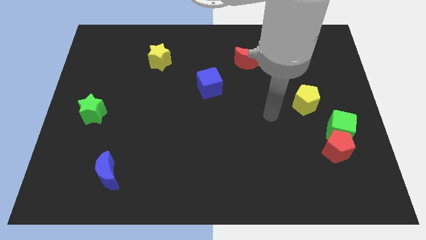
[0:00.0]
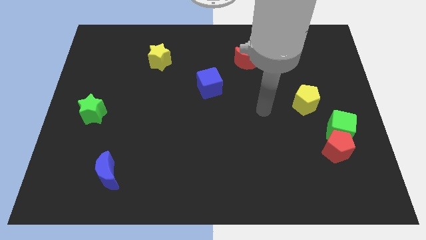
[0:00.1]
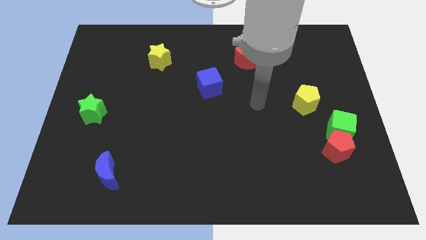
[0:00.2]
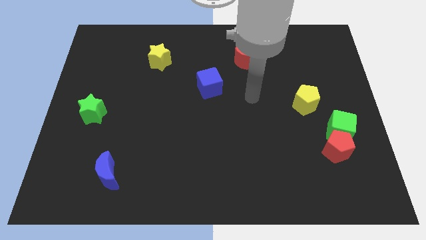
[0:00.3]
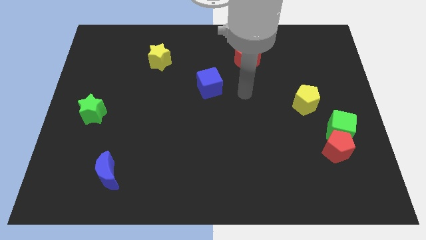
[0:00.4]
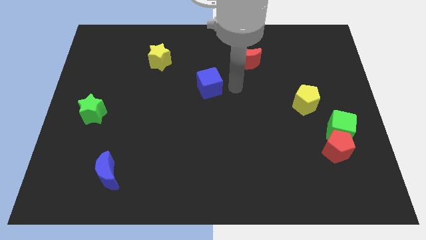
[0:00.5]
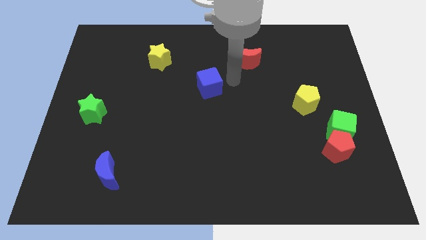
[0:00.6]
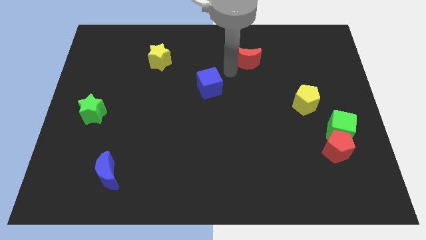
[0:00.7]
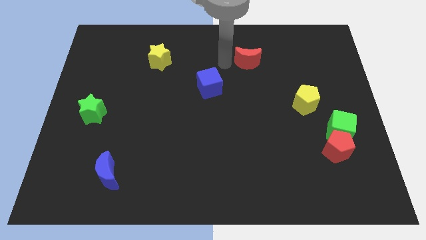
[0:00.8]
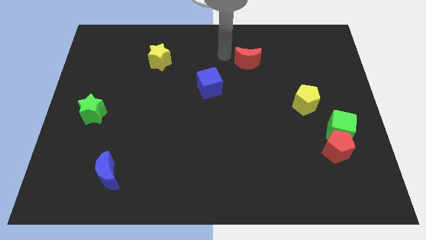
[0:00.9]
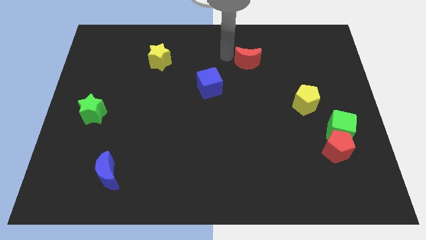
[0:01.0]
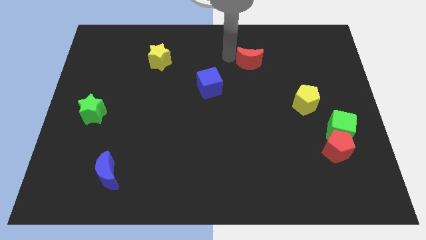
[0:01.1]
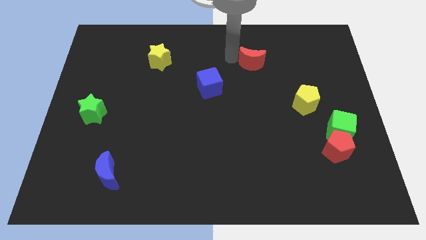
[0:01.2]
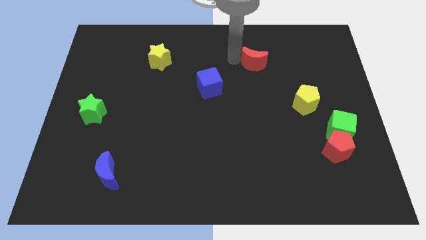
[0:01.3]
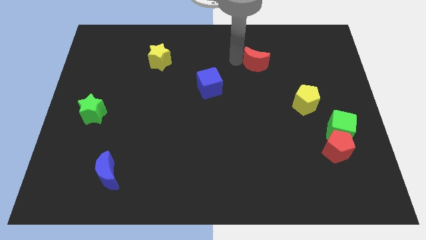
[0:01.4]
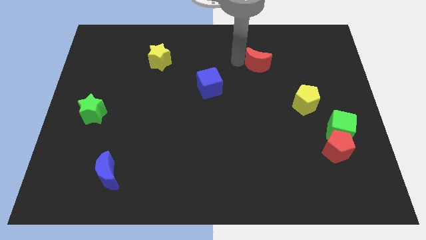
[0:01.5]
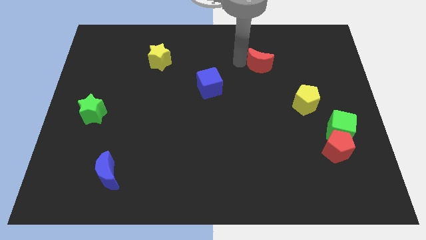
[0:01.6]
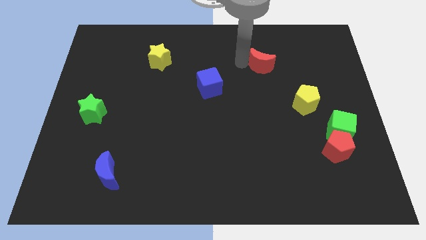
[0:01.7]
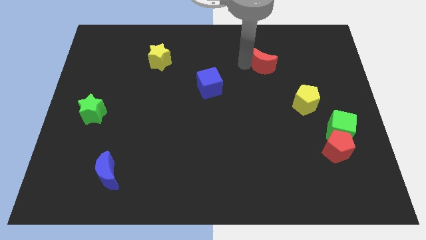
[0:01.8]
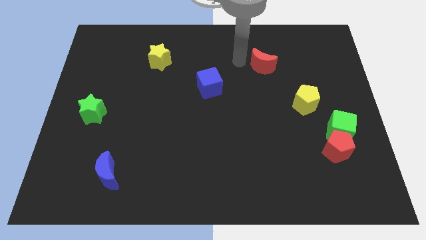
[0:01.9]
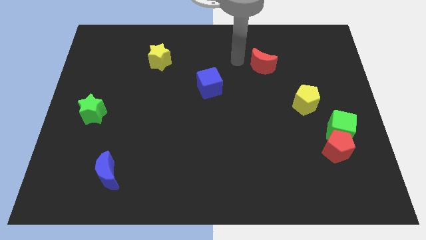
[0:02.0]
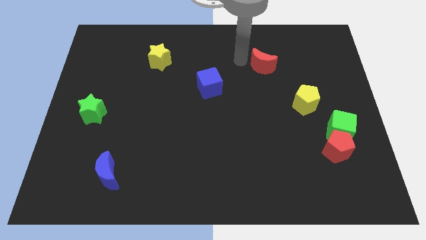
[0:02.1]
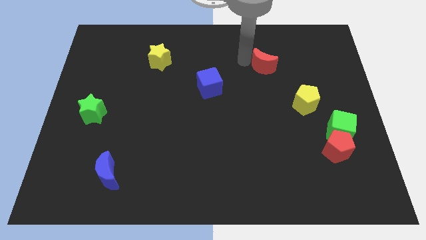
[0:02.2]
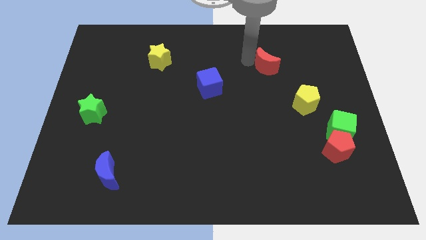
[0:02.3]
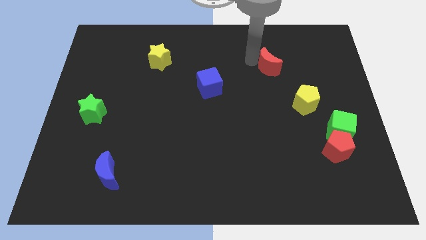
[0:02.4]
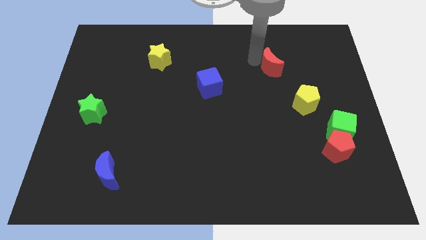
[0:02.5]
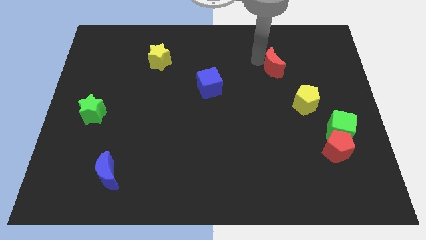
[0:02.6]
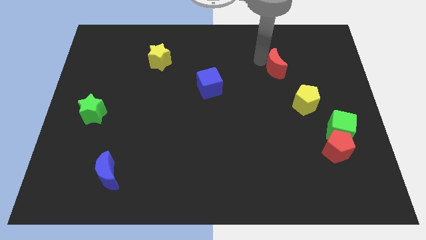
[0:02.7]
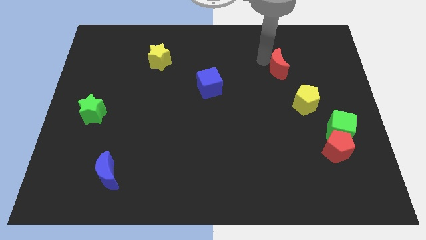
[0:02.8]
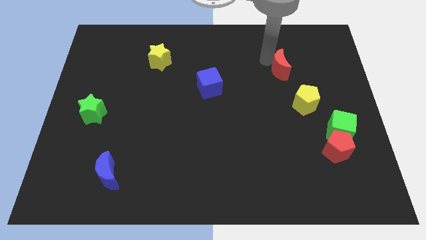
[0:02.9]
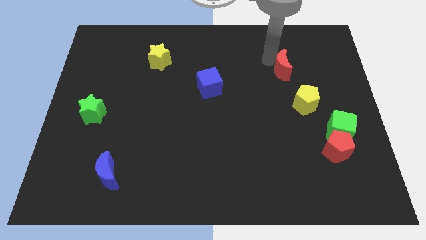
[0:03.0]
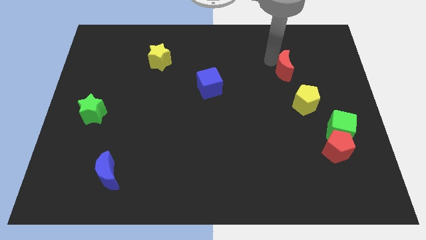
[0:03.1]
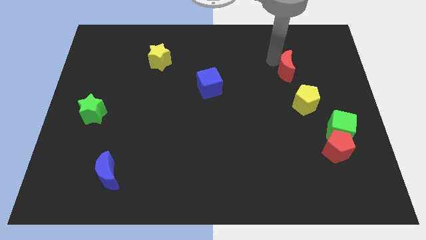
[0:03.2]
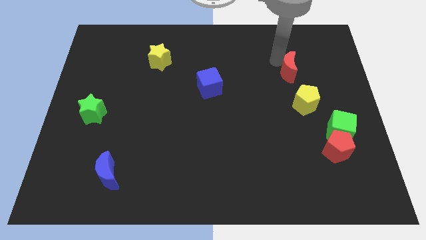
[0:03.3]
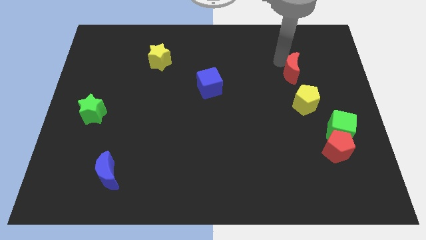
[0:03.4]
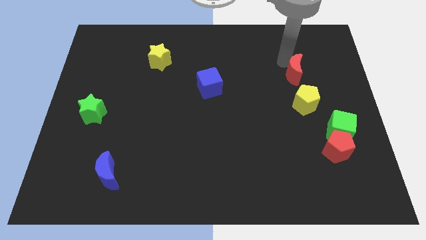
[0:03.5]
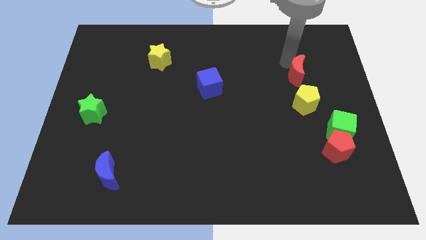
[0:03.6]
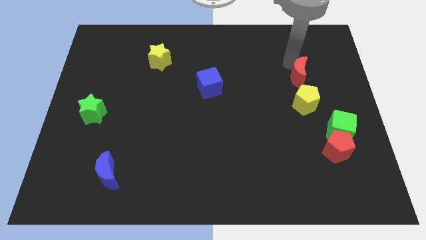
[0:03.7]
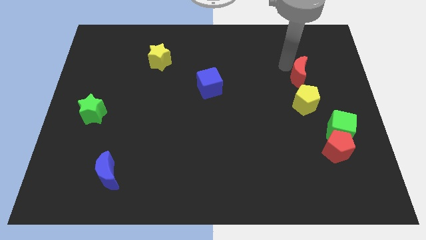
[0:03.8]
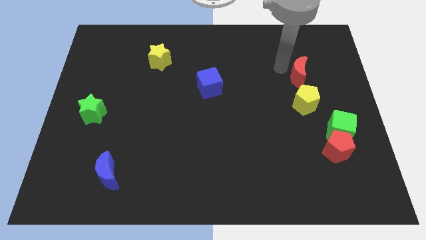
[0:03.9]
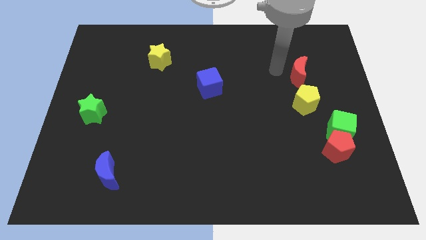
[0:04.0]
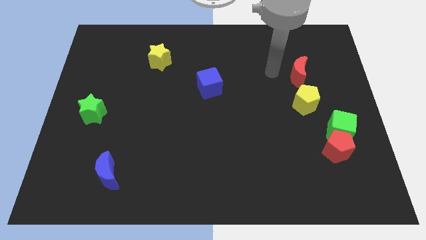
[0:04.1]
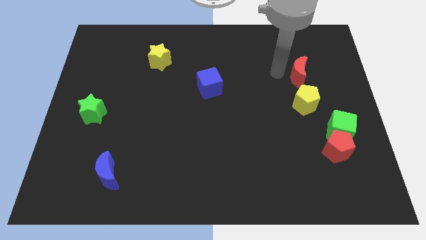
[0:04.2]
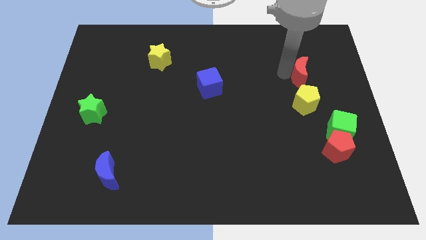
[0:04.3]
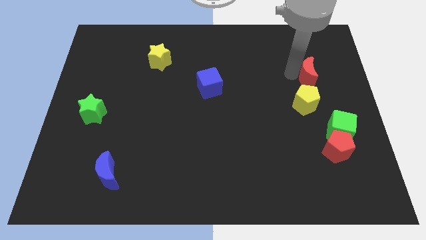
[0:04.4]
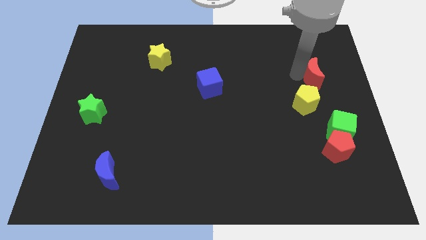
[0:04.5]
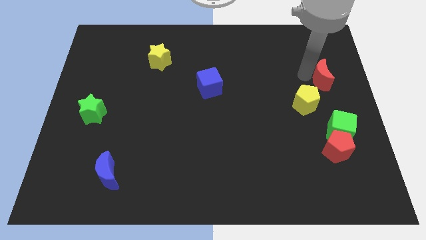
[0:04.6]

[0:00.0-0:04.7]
move the red moon to the center right

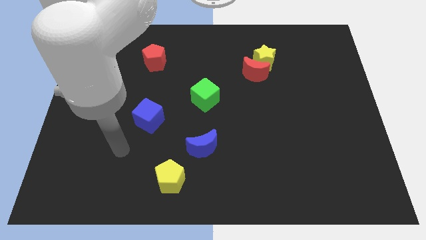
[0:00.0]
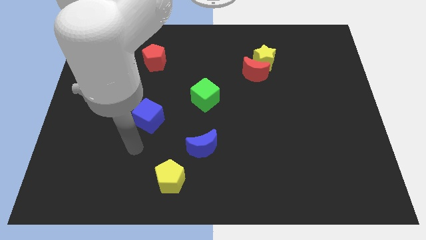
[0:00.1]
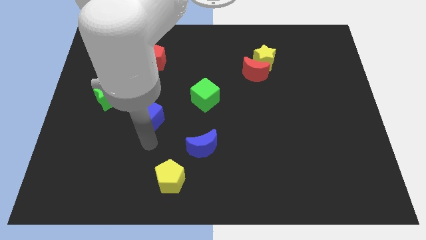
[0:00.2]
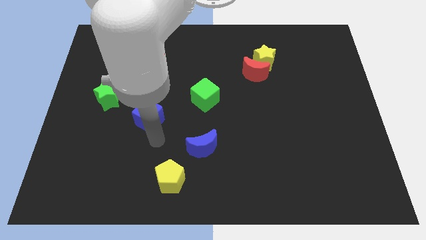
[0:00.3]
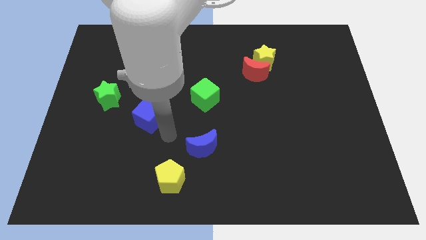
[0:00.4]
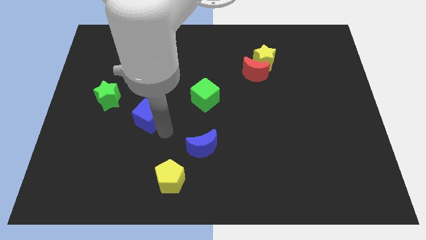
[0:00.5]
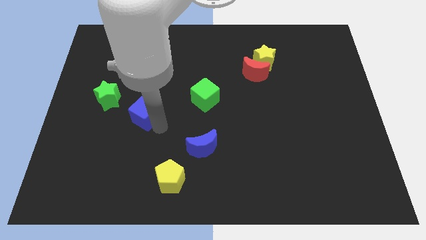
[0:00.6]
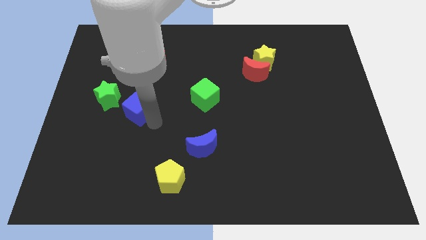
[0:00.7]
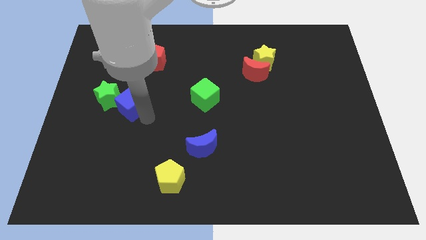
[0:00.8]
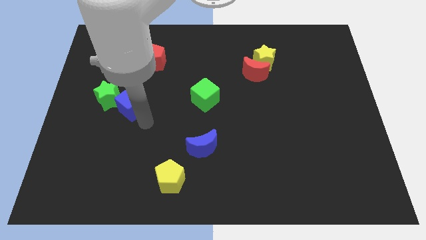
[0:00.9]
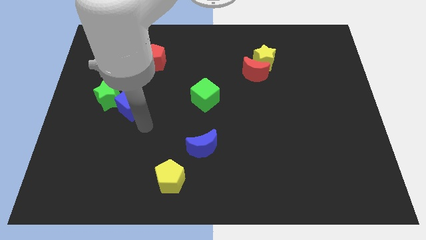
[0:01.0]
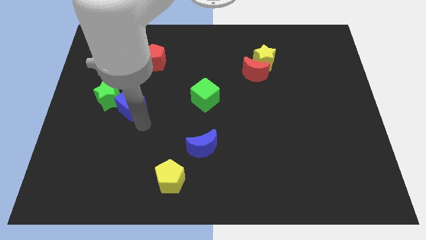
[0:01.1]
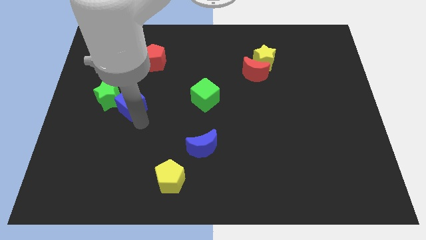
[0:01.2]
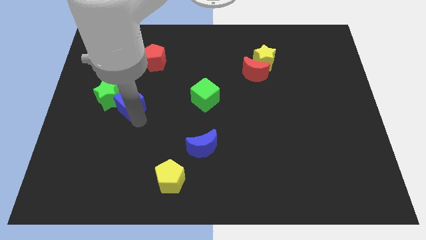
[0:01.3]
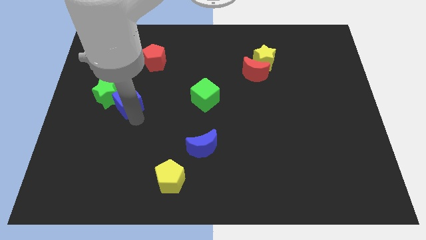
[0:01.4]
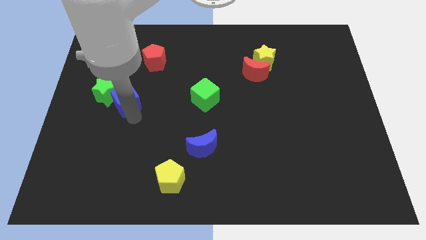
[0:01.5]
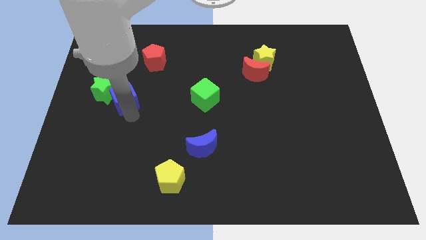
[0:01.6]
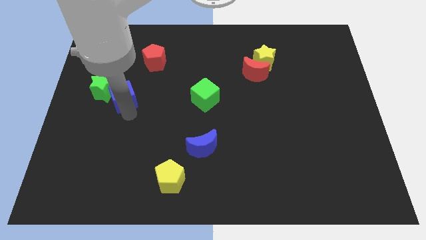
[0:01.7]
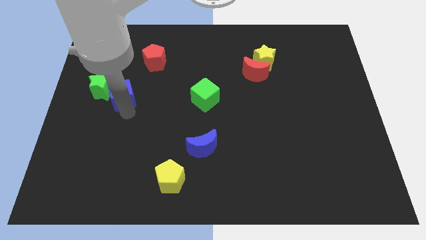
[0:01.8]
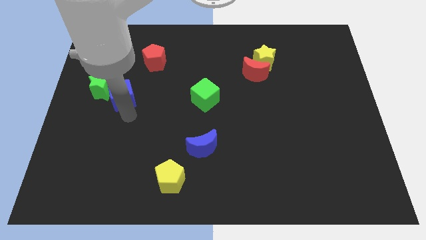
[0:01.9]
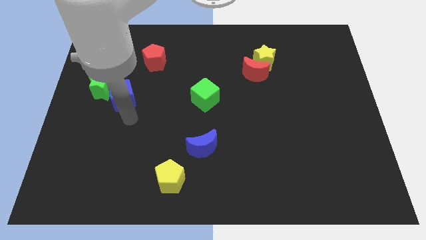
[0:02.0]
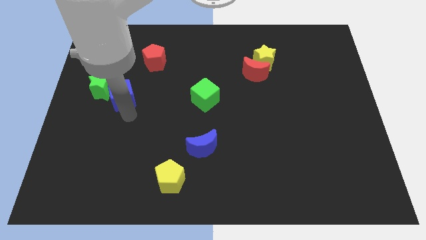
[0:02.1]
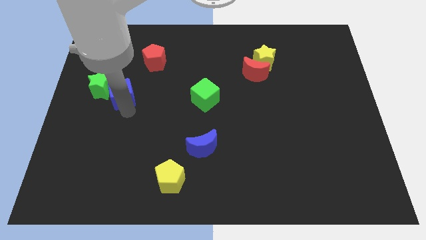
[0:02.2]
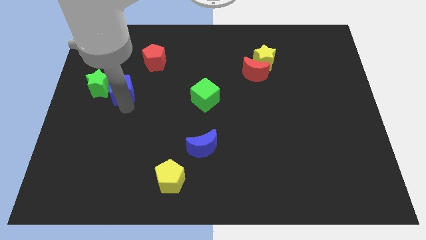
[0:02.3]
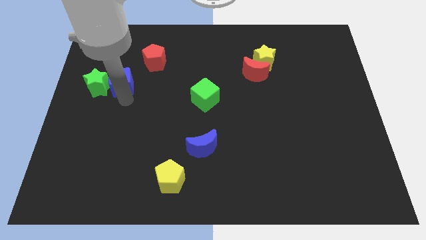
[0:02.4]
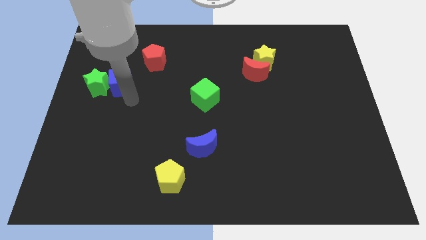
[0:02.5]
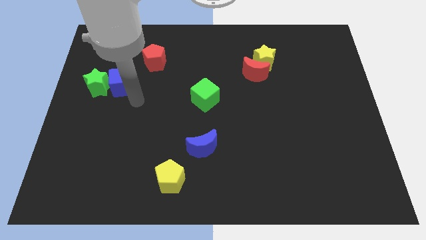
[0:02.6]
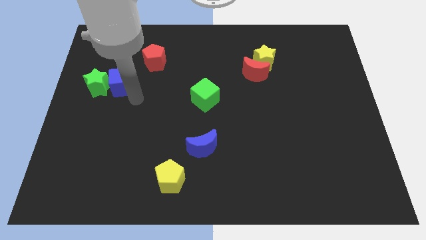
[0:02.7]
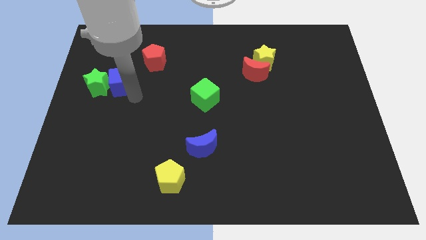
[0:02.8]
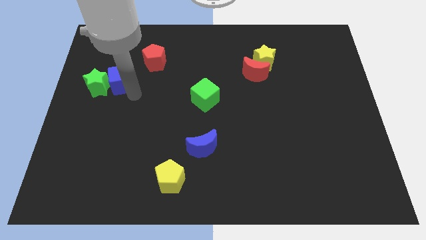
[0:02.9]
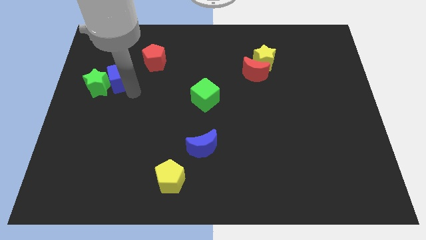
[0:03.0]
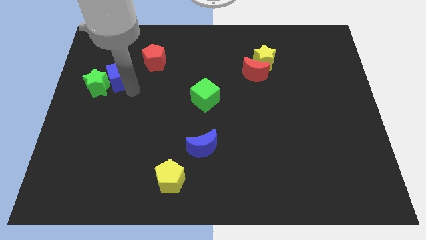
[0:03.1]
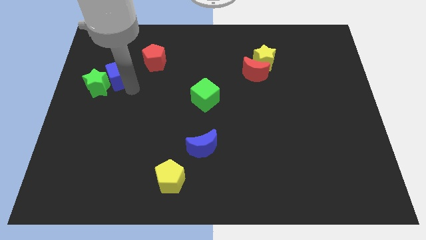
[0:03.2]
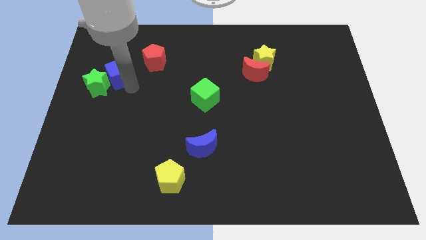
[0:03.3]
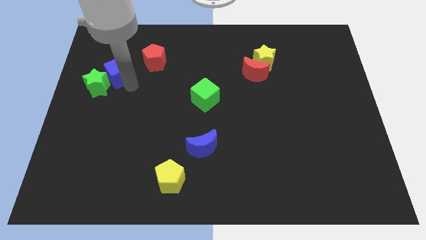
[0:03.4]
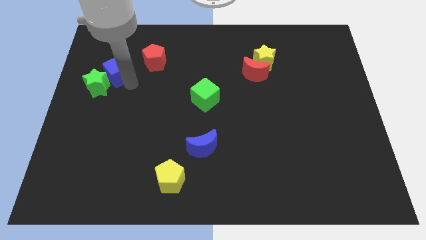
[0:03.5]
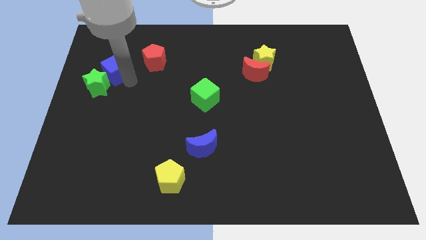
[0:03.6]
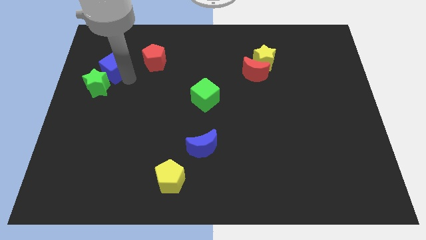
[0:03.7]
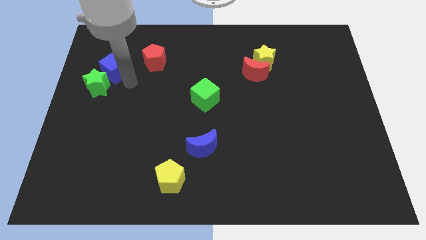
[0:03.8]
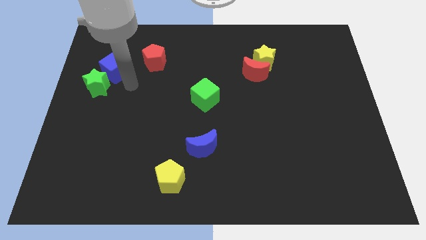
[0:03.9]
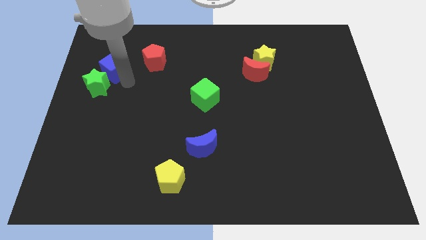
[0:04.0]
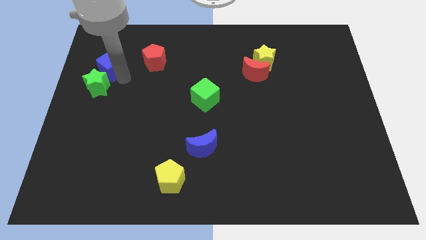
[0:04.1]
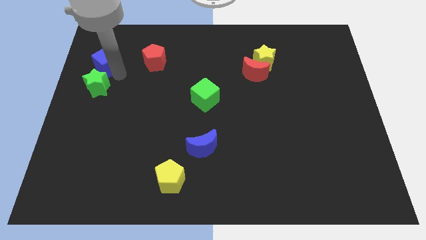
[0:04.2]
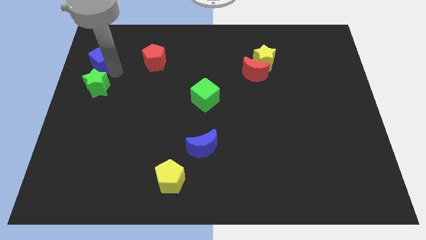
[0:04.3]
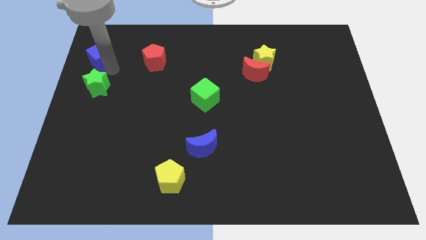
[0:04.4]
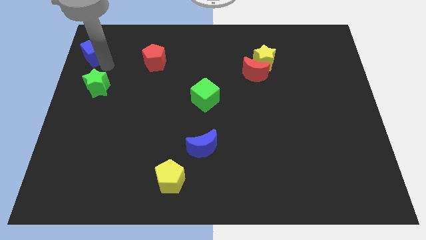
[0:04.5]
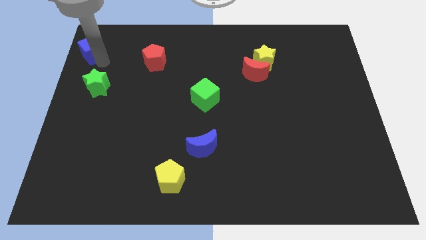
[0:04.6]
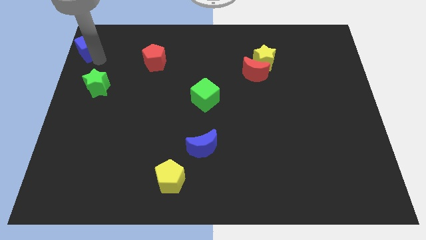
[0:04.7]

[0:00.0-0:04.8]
move the blue cube to the top left
